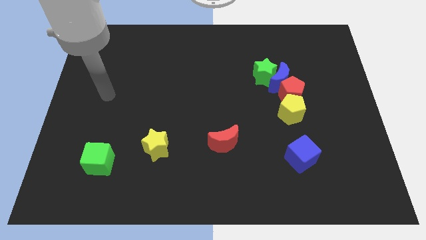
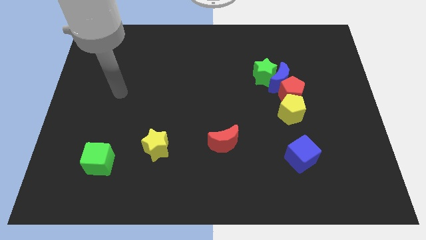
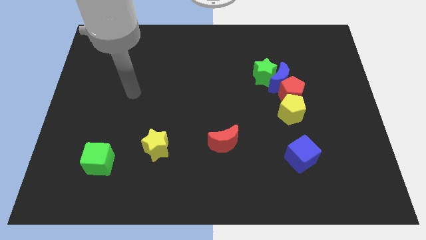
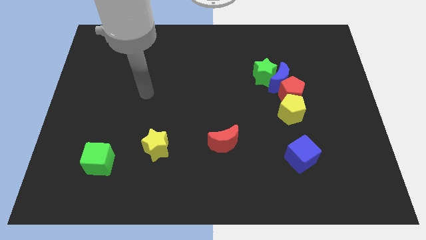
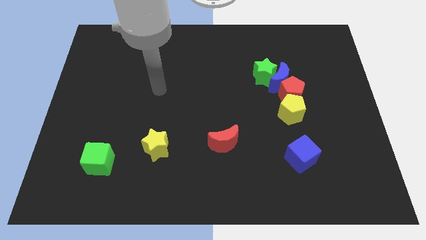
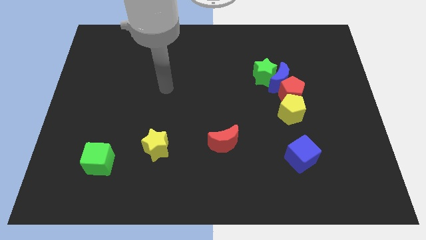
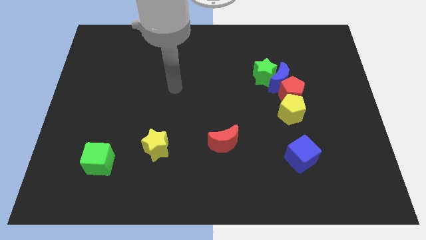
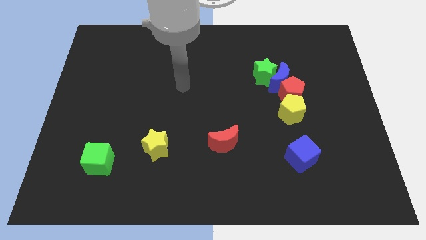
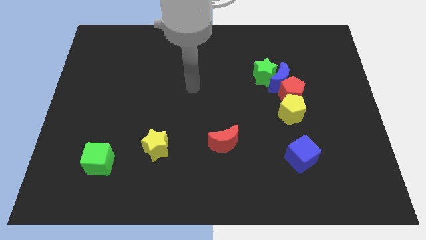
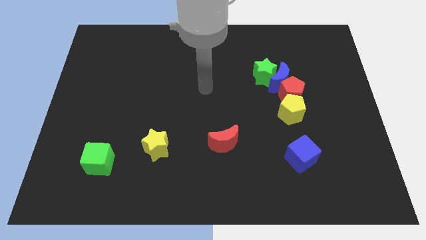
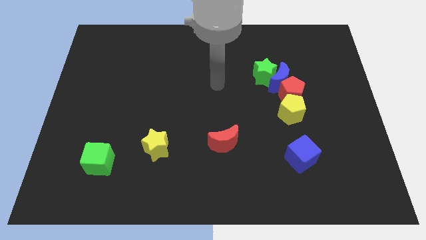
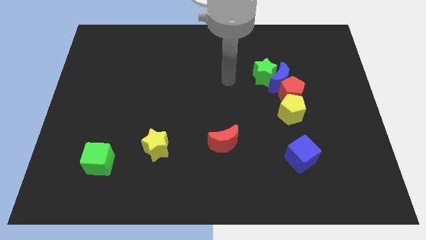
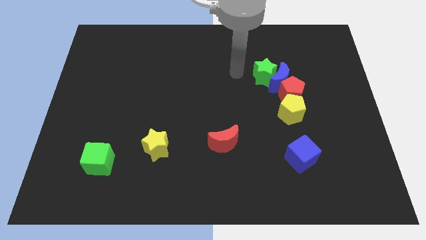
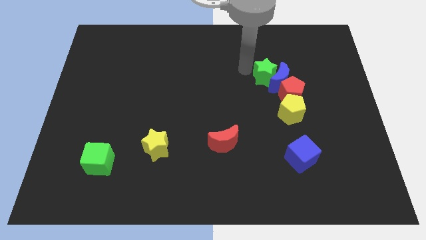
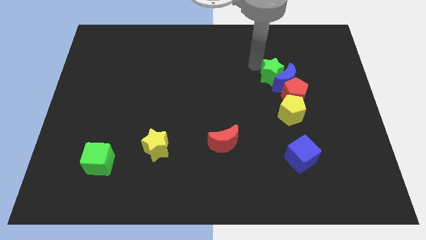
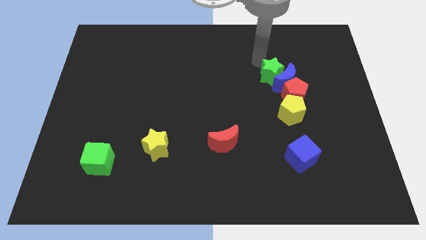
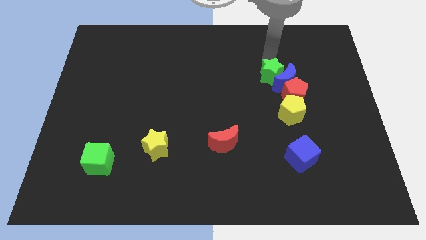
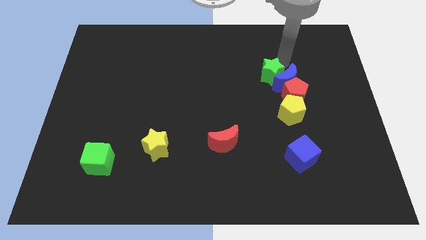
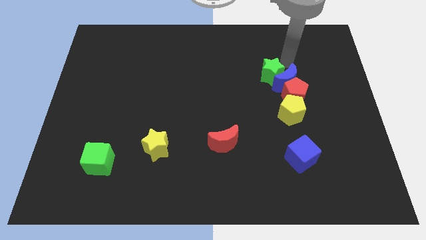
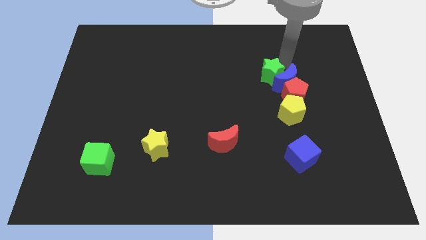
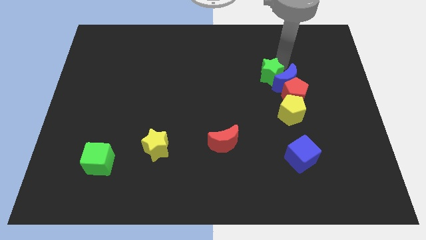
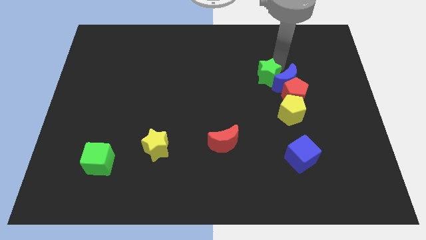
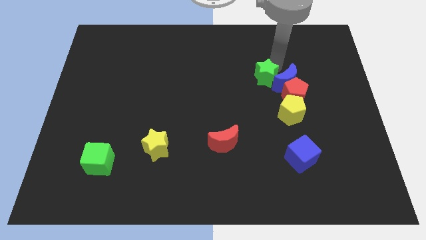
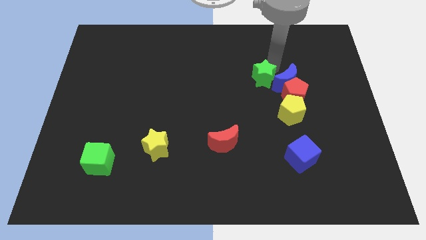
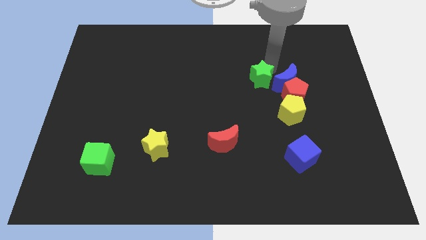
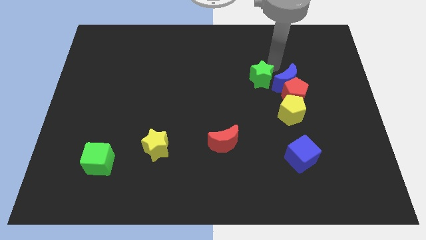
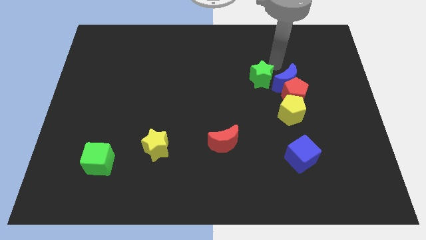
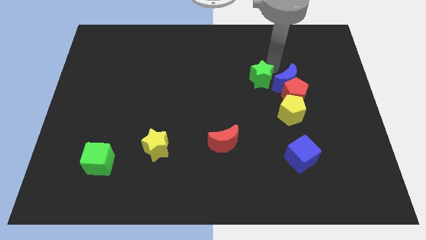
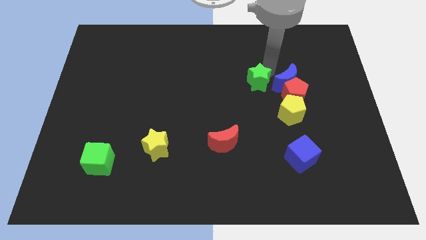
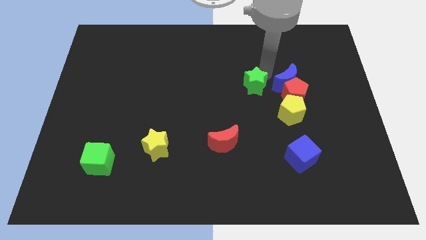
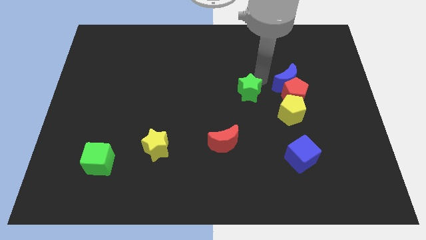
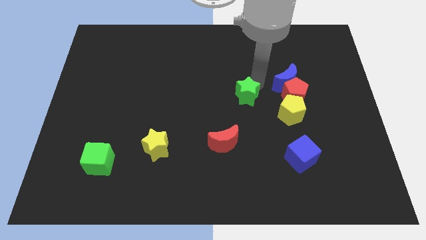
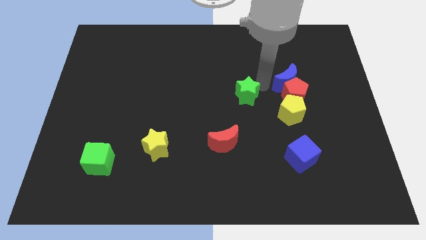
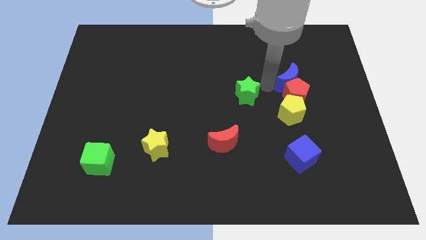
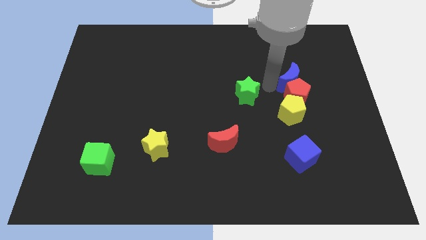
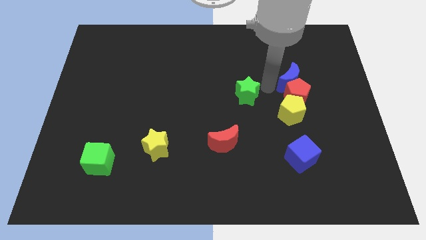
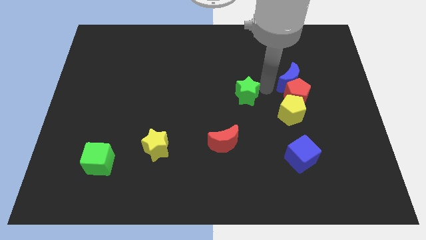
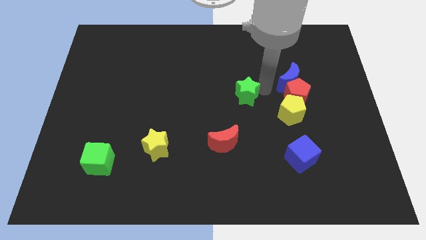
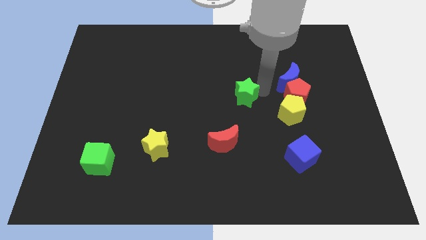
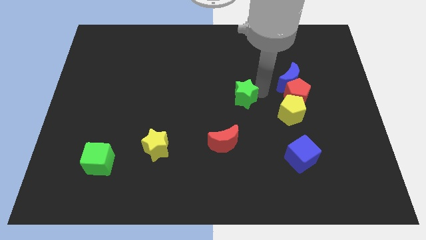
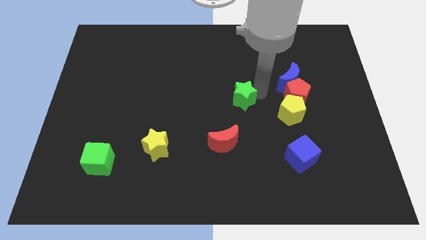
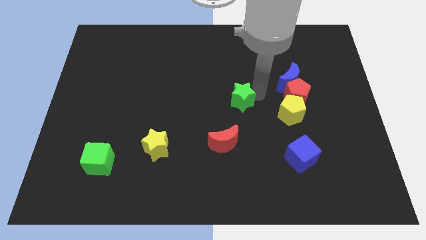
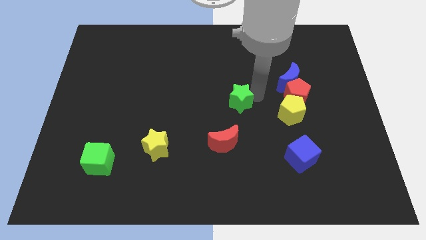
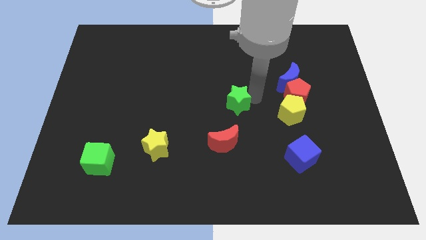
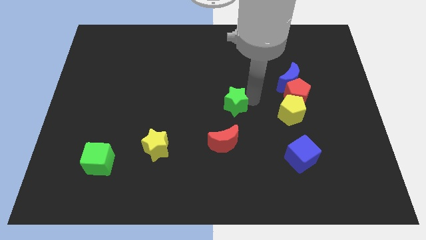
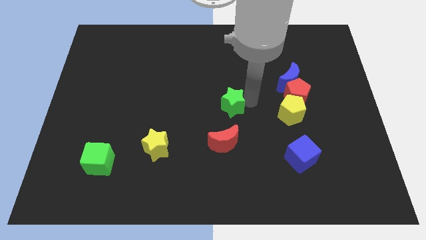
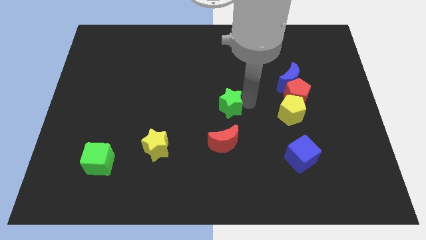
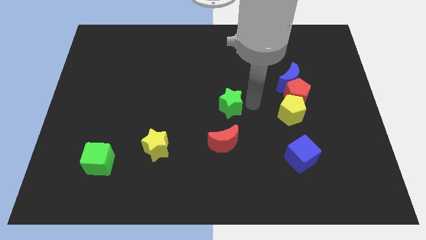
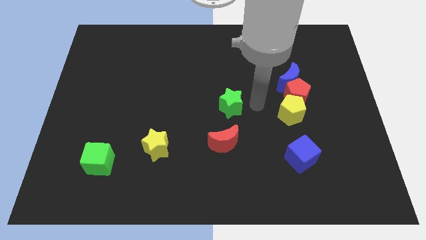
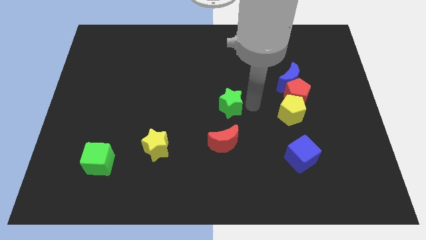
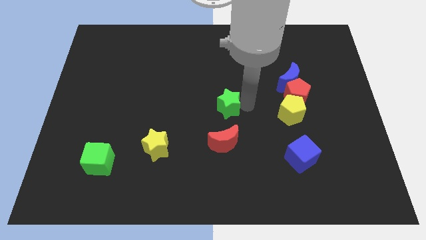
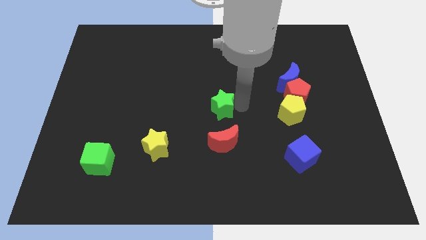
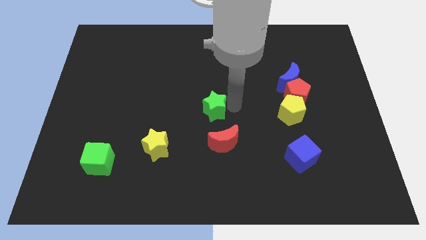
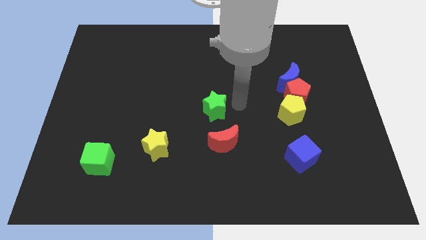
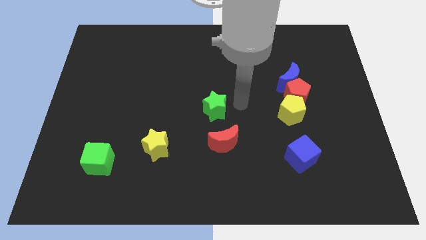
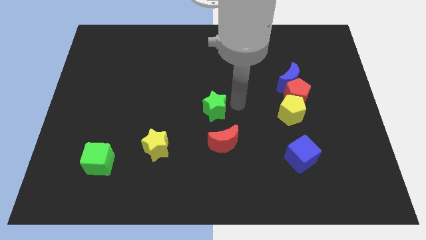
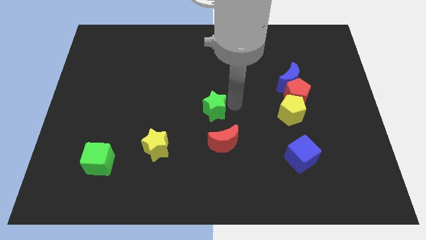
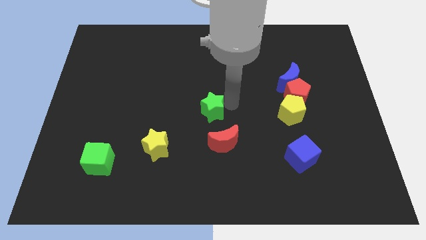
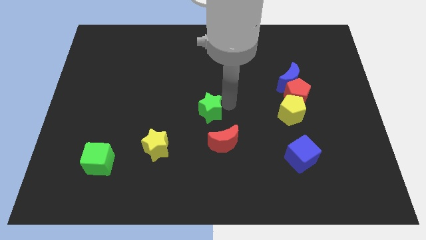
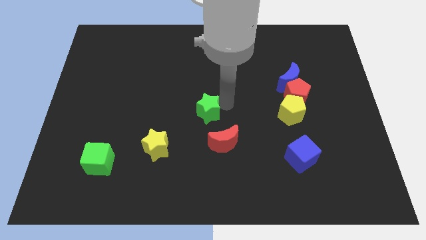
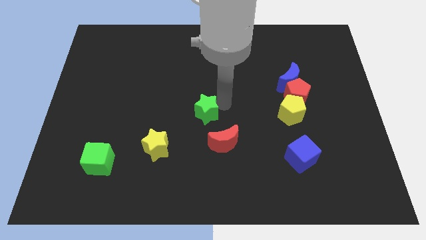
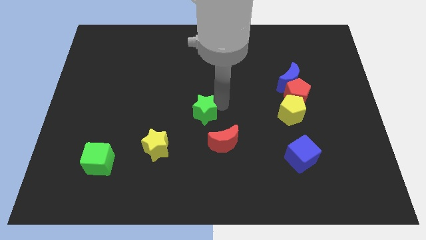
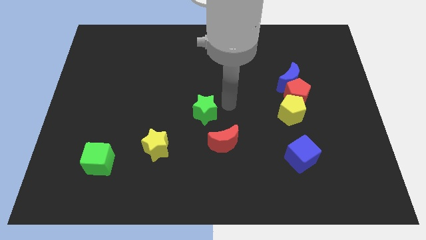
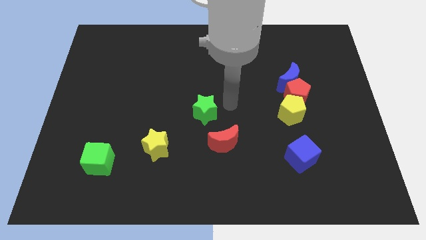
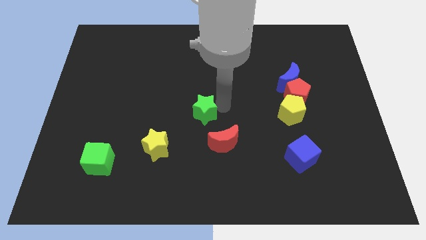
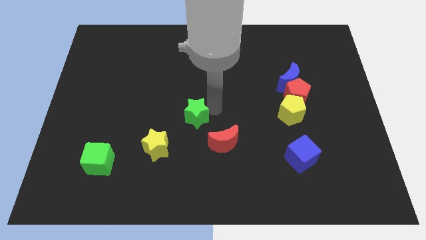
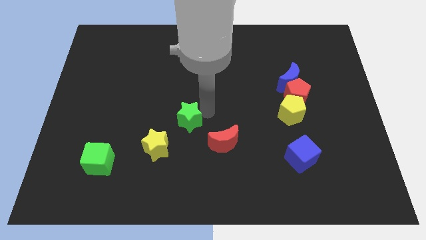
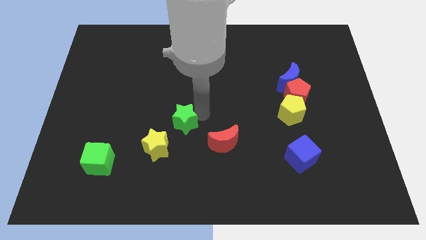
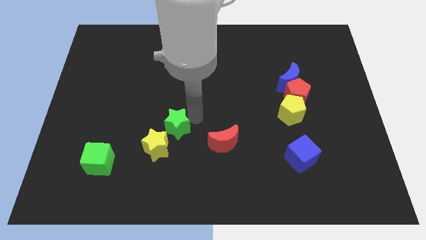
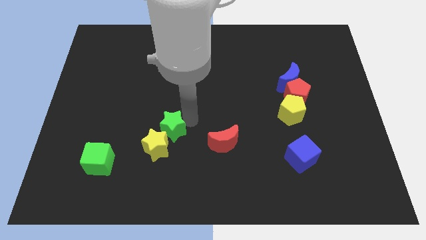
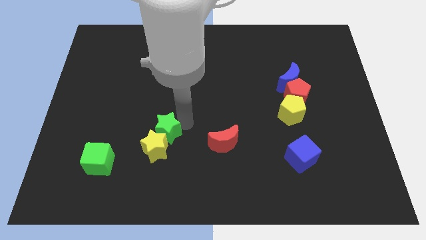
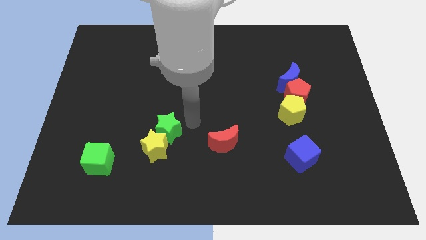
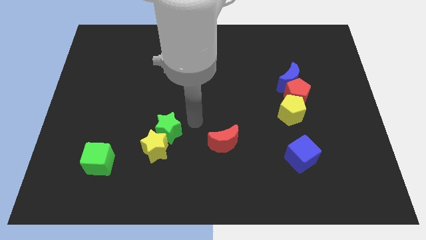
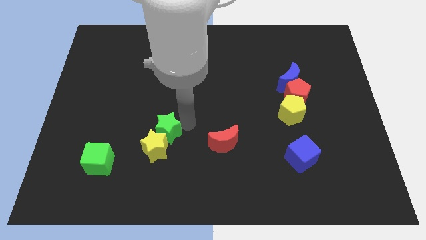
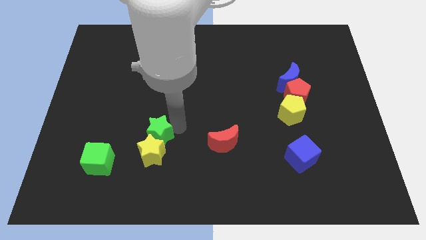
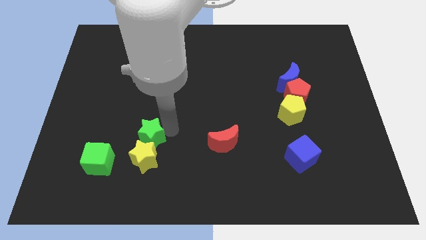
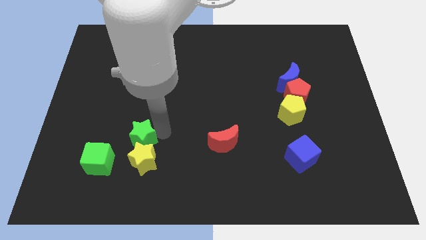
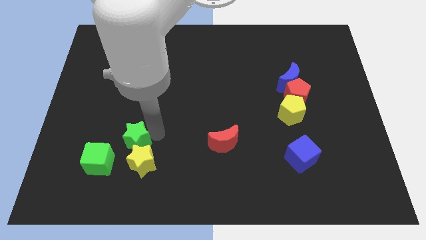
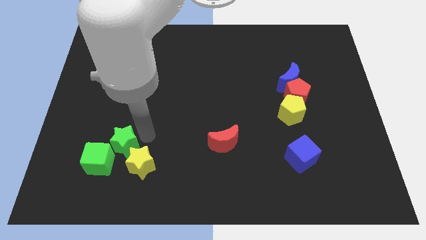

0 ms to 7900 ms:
put the green star close to the green cube

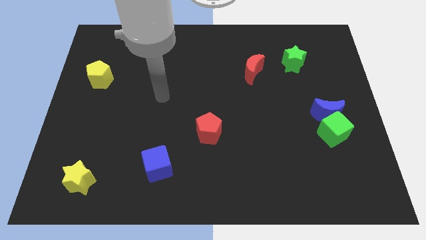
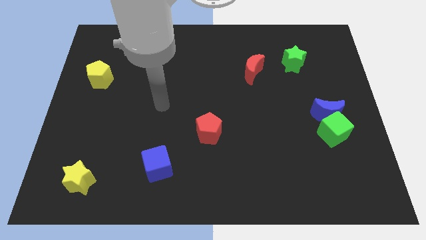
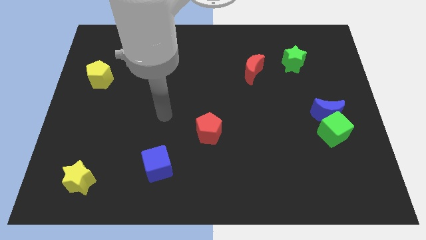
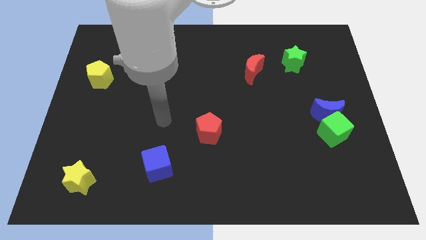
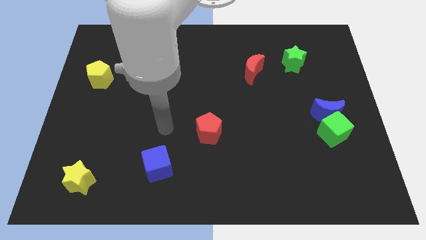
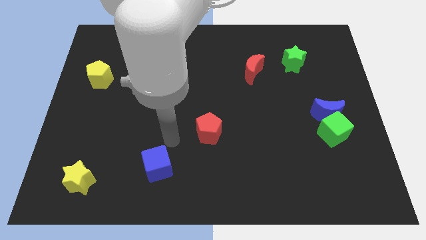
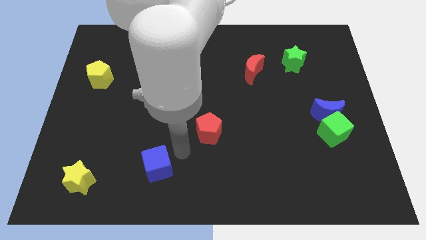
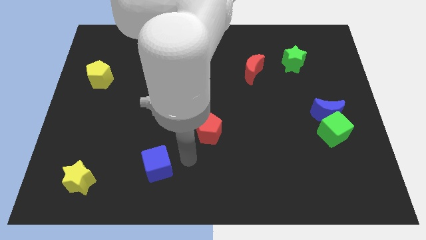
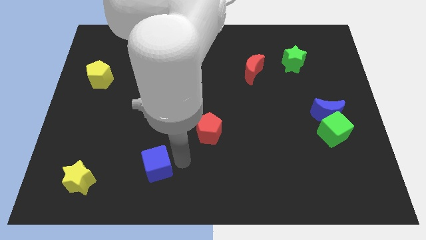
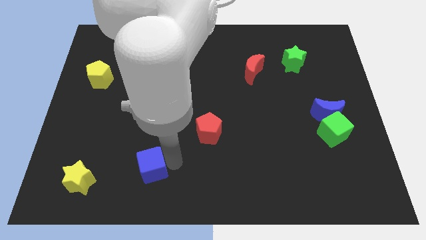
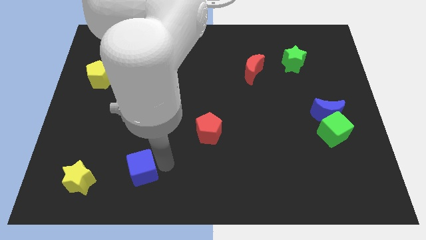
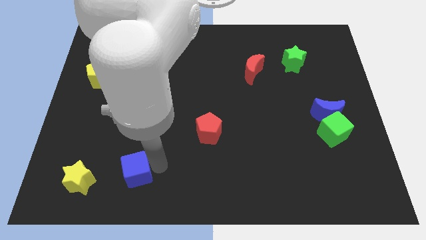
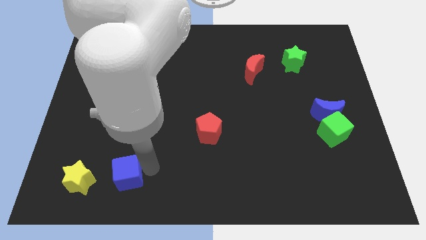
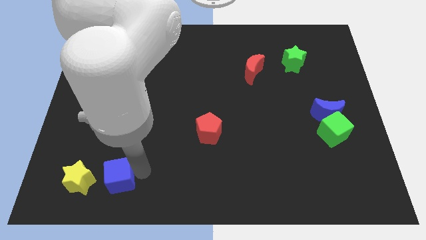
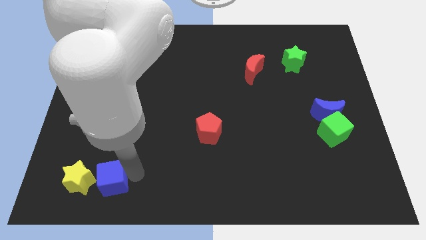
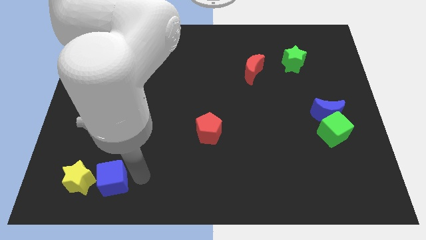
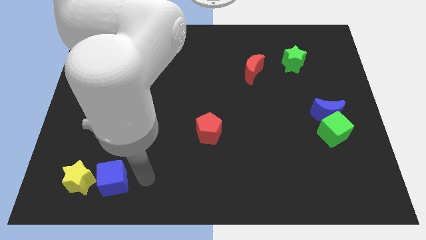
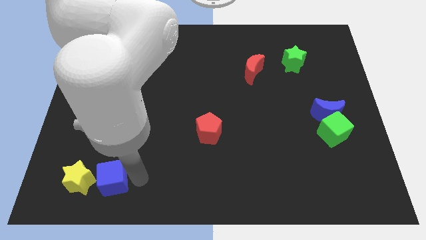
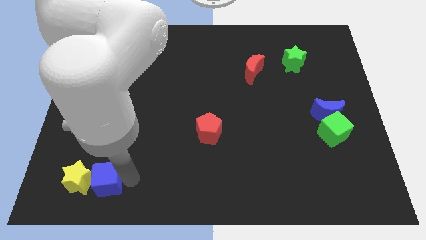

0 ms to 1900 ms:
move the blue cube to the yellow star
